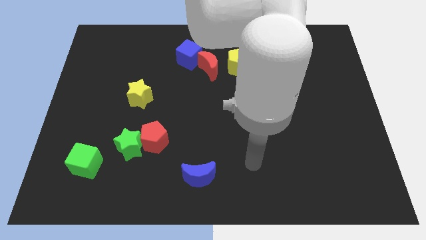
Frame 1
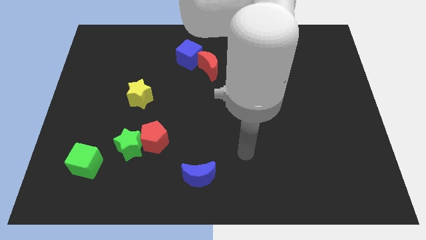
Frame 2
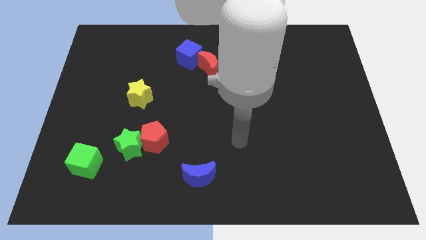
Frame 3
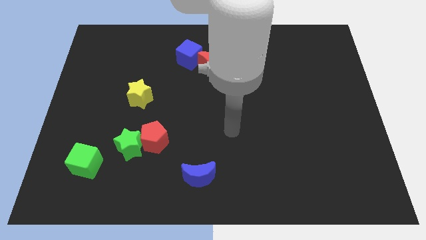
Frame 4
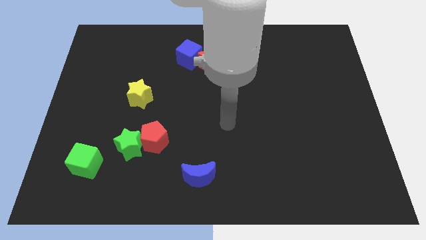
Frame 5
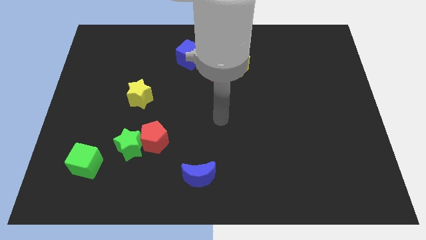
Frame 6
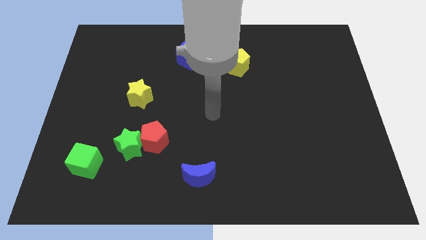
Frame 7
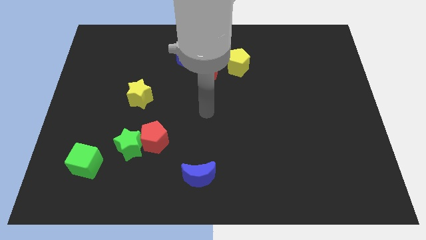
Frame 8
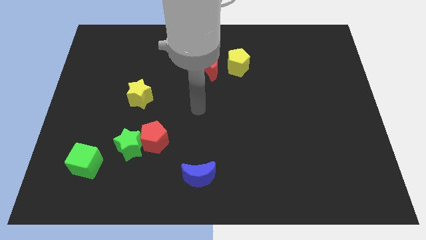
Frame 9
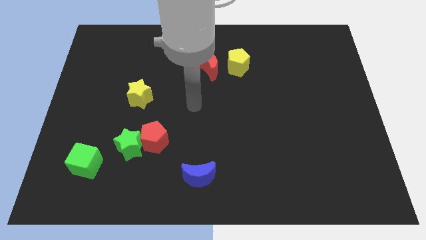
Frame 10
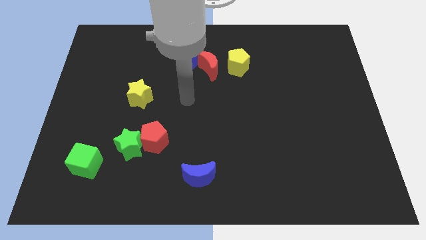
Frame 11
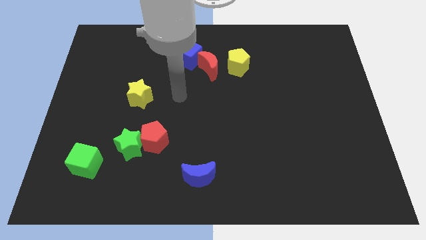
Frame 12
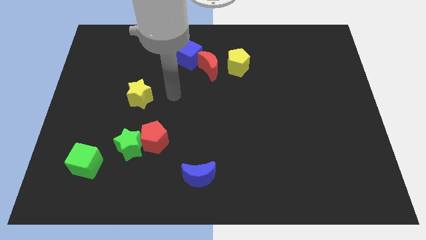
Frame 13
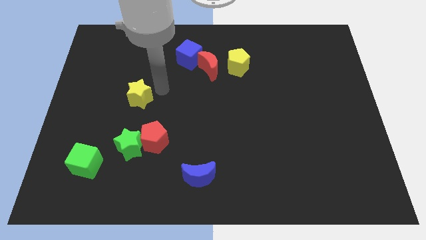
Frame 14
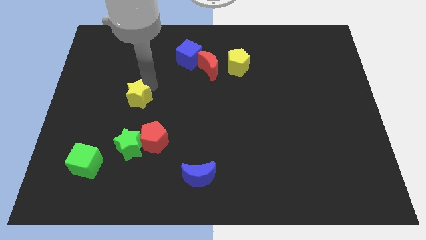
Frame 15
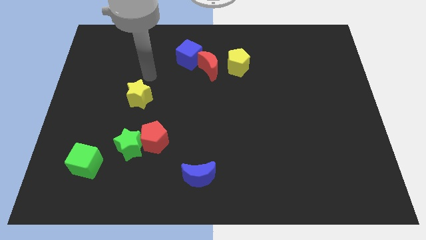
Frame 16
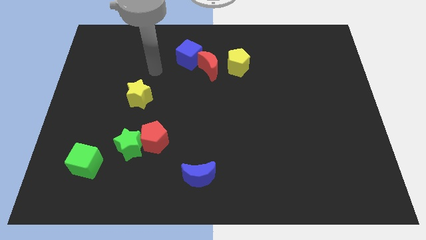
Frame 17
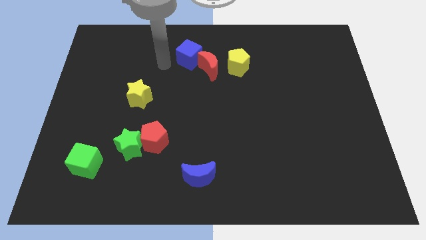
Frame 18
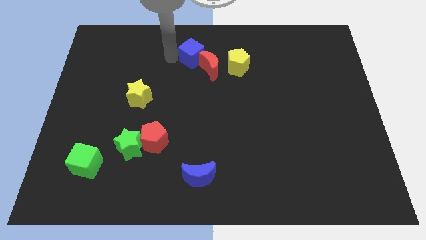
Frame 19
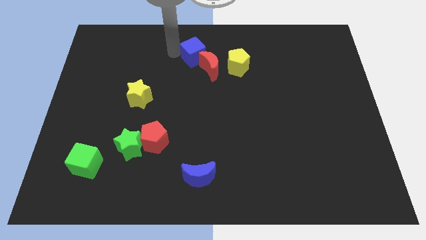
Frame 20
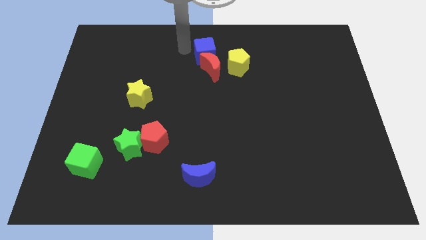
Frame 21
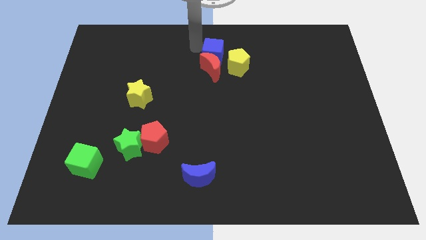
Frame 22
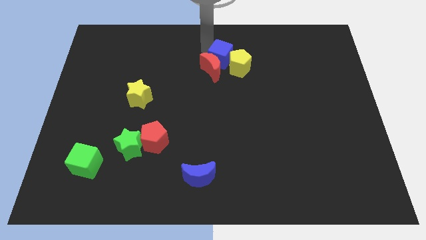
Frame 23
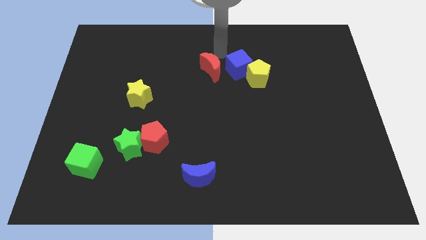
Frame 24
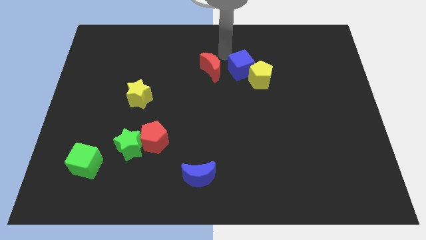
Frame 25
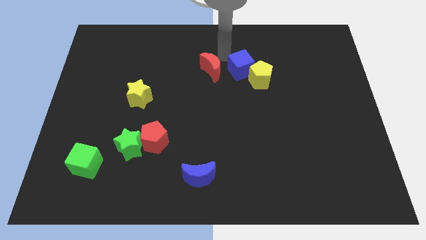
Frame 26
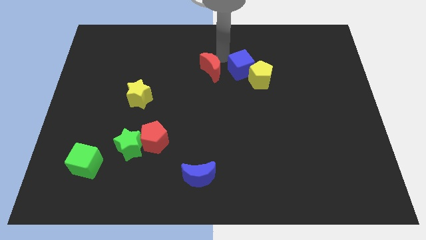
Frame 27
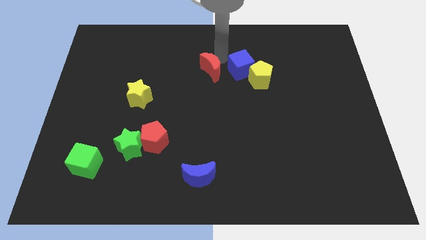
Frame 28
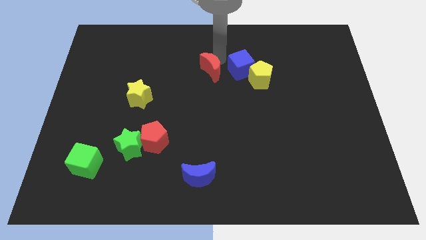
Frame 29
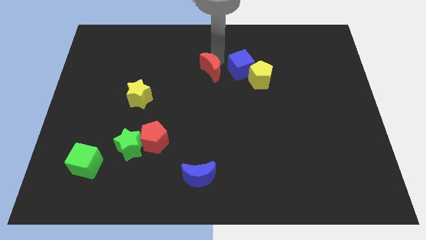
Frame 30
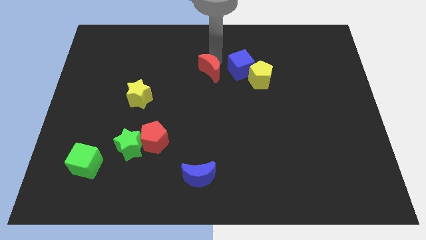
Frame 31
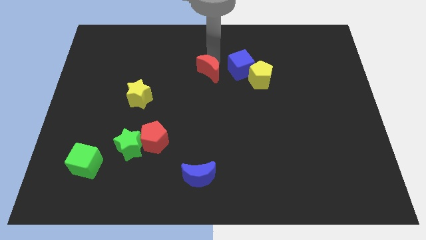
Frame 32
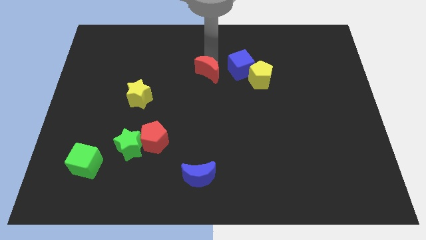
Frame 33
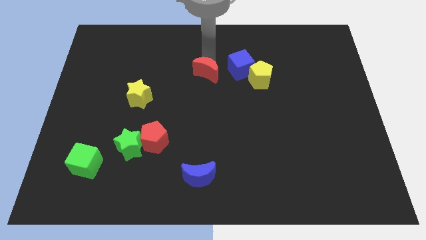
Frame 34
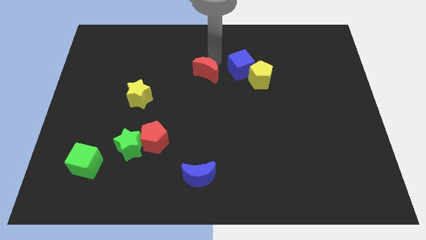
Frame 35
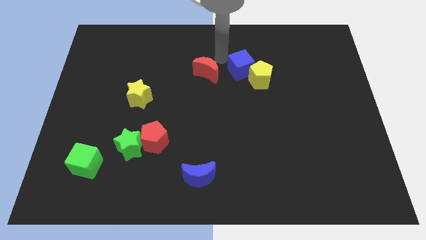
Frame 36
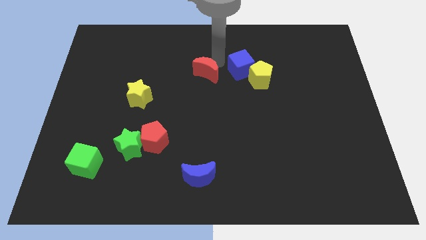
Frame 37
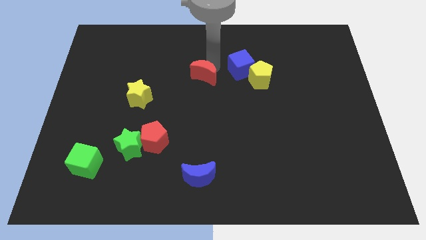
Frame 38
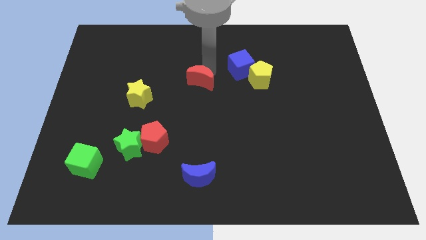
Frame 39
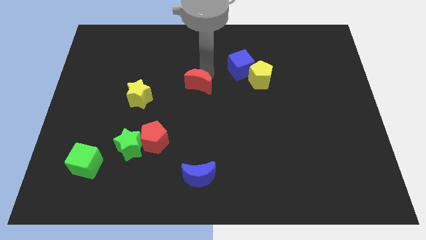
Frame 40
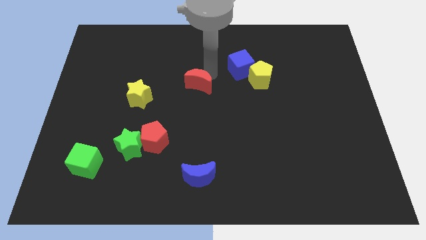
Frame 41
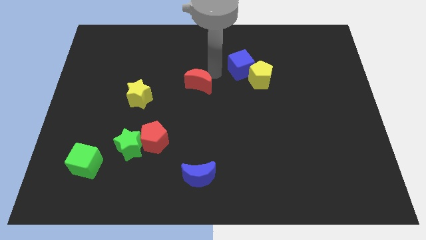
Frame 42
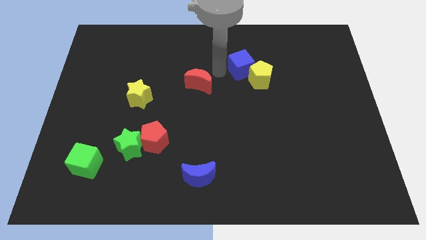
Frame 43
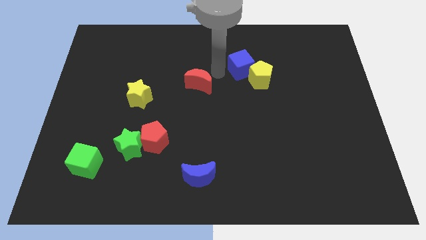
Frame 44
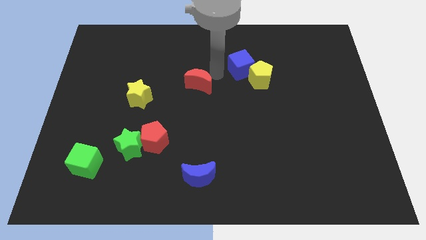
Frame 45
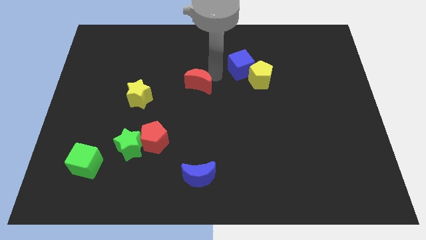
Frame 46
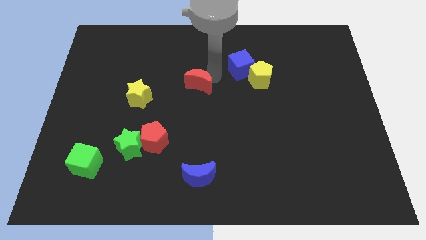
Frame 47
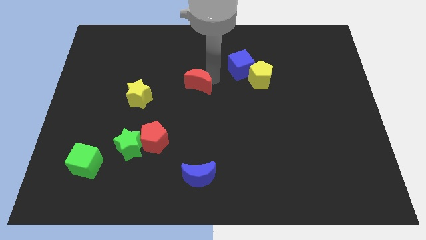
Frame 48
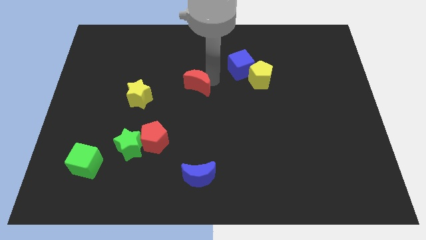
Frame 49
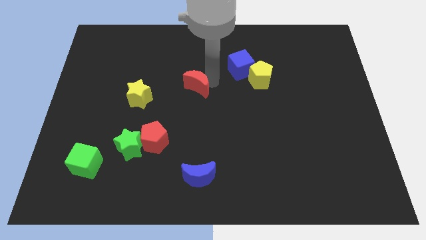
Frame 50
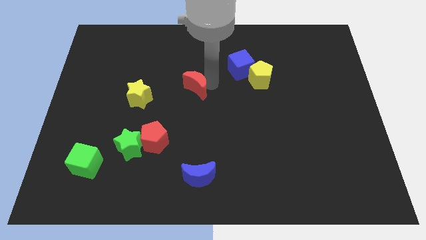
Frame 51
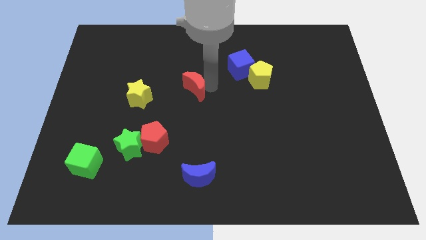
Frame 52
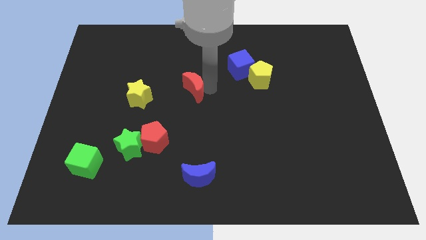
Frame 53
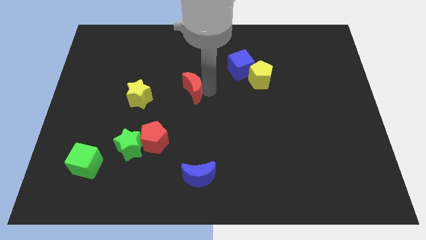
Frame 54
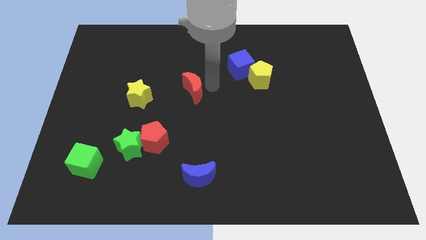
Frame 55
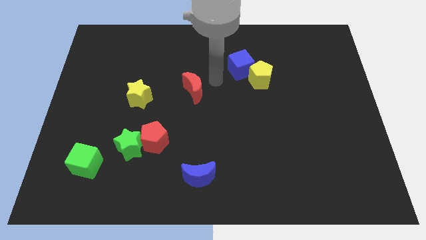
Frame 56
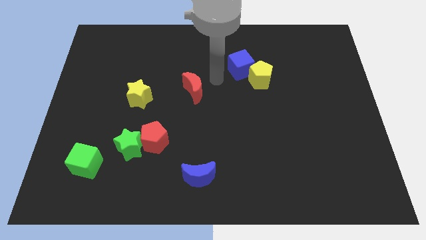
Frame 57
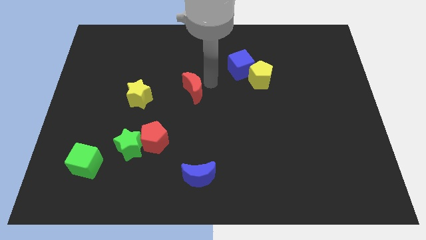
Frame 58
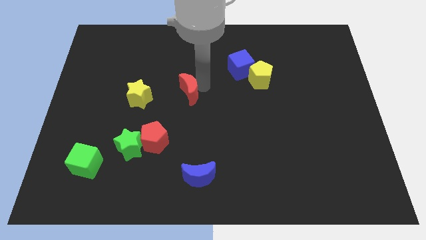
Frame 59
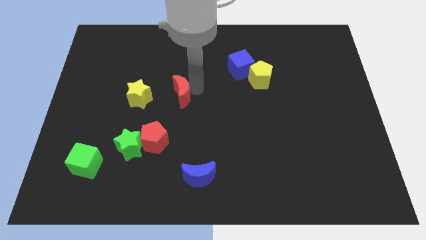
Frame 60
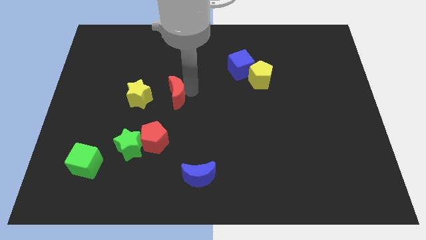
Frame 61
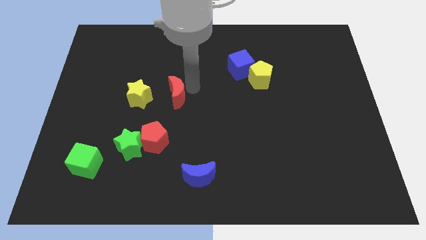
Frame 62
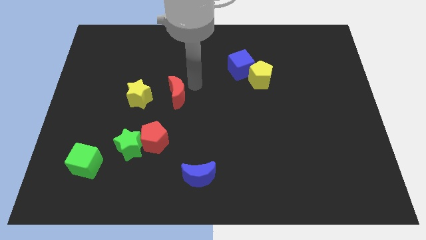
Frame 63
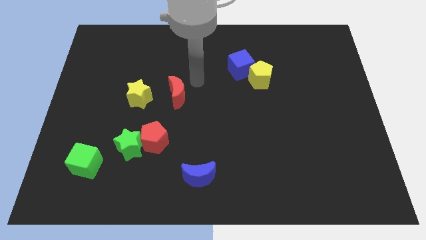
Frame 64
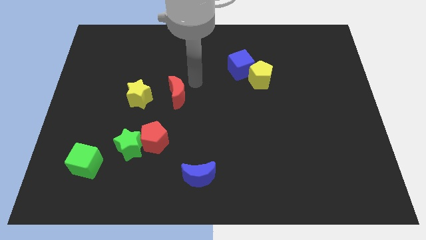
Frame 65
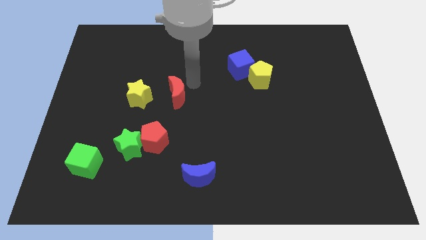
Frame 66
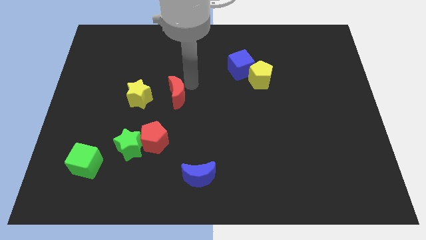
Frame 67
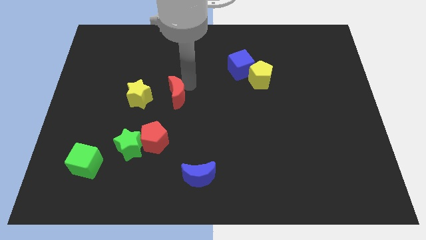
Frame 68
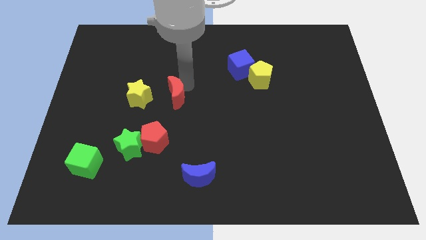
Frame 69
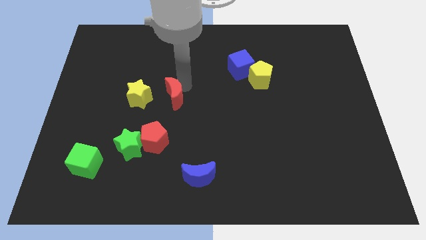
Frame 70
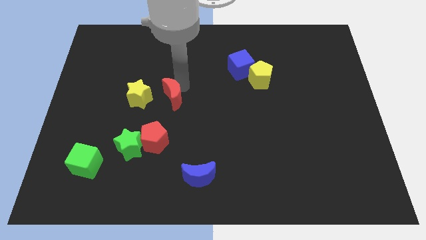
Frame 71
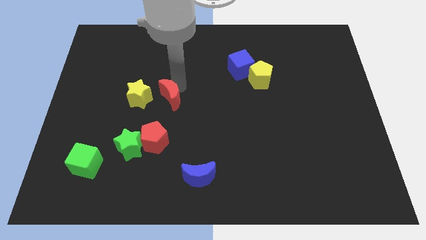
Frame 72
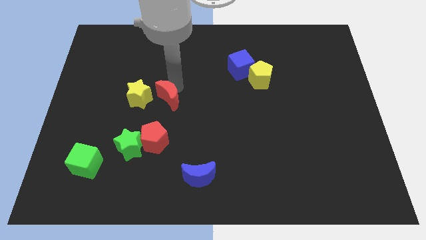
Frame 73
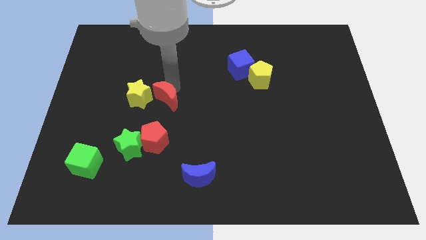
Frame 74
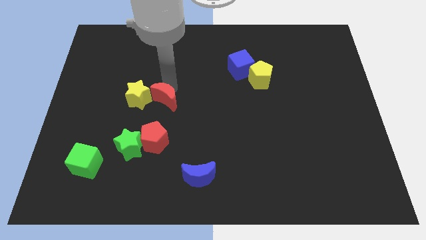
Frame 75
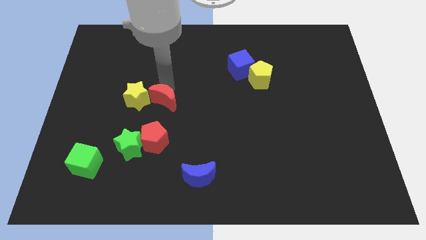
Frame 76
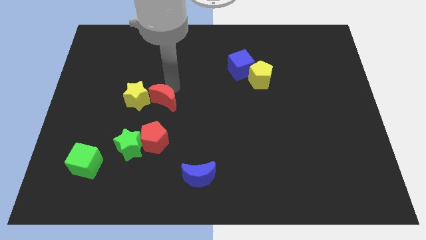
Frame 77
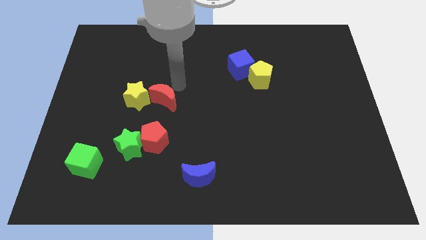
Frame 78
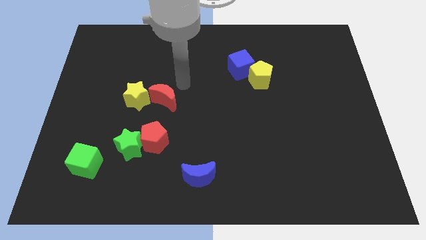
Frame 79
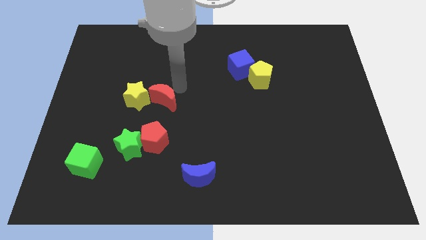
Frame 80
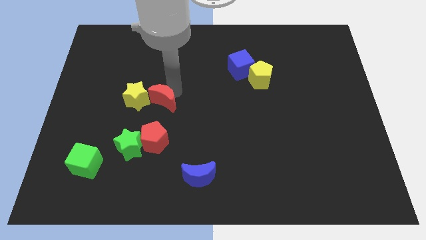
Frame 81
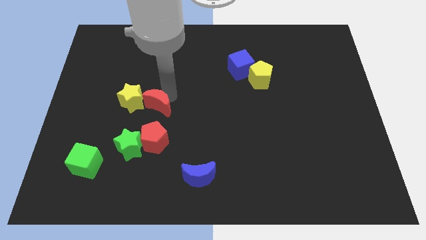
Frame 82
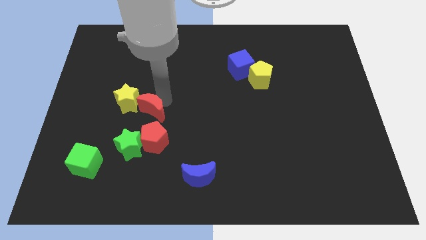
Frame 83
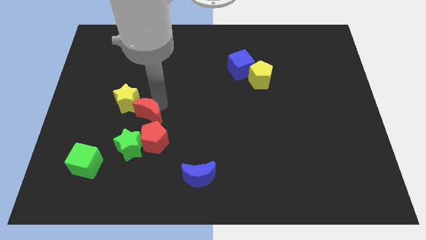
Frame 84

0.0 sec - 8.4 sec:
move the red moon down and to the left diagonally
